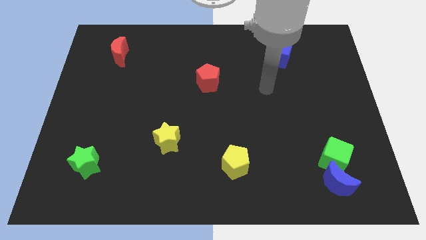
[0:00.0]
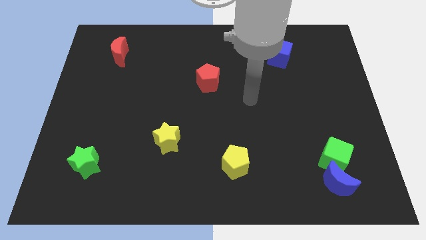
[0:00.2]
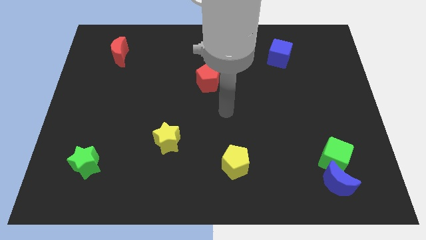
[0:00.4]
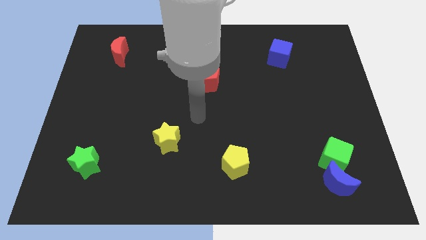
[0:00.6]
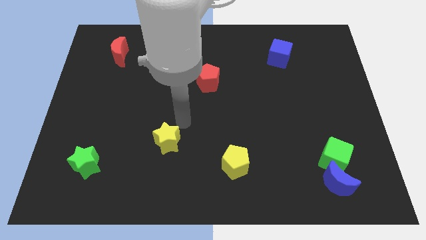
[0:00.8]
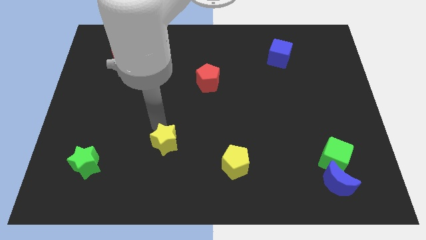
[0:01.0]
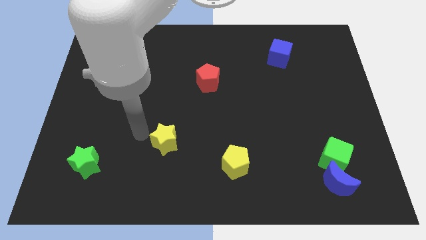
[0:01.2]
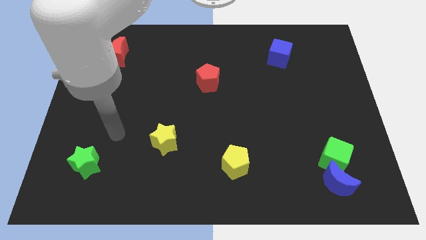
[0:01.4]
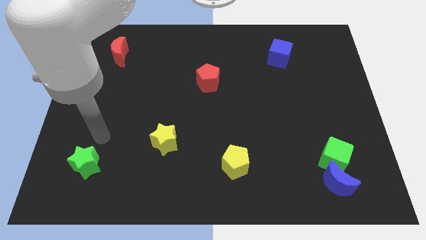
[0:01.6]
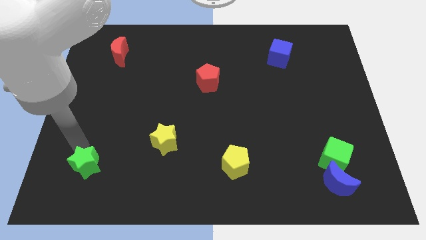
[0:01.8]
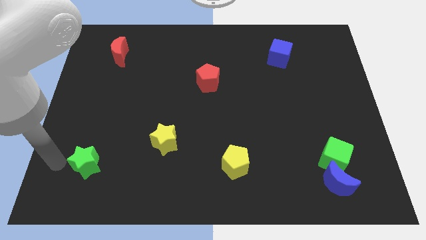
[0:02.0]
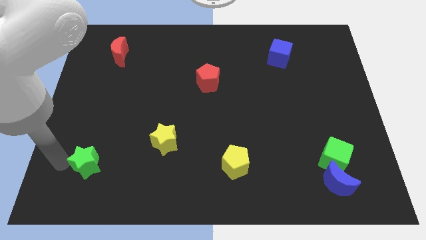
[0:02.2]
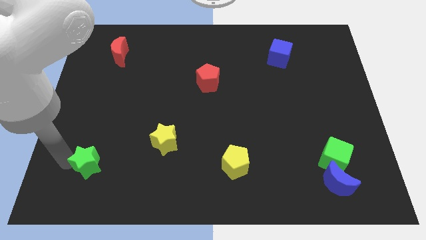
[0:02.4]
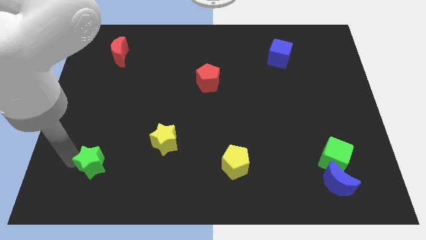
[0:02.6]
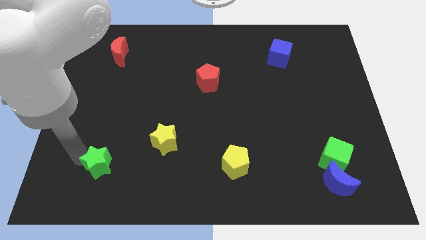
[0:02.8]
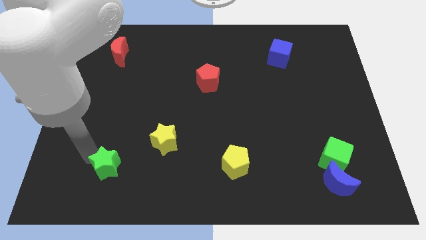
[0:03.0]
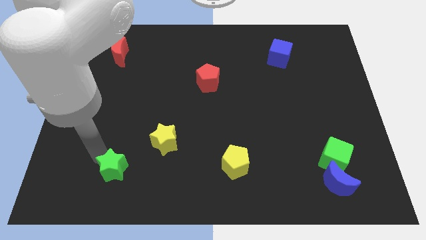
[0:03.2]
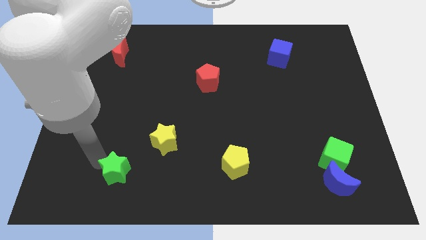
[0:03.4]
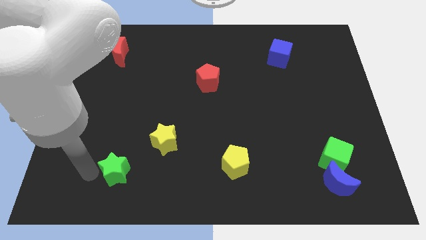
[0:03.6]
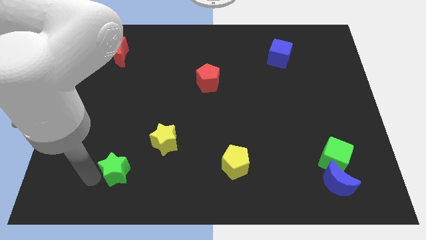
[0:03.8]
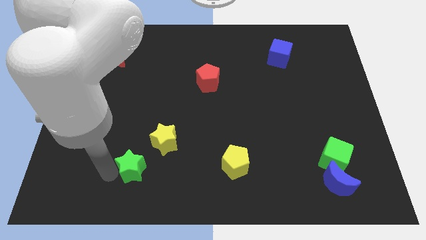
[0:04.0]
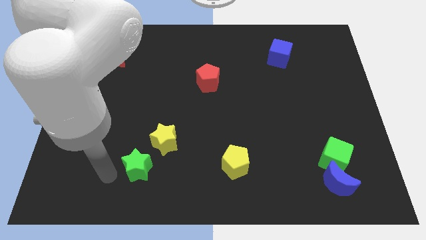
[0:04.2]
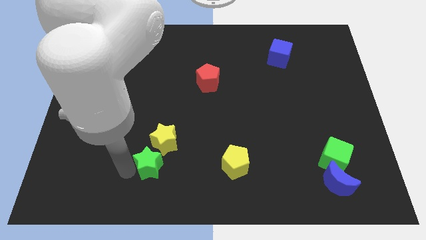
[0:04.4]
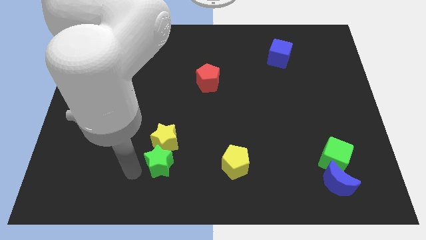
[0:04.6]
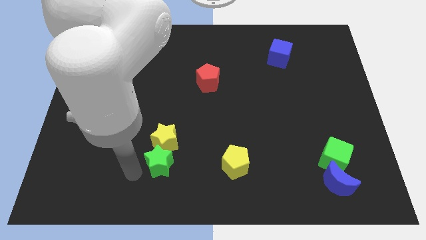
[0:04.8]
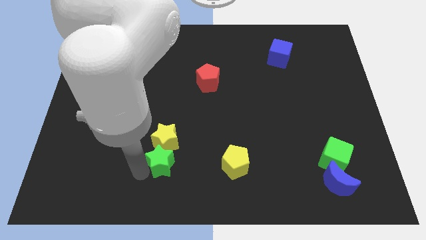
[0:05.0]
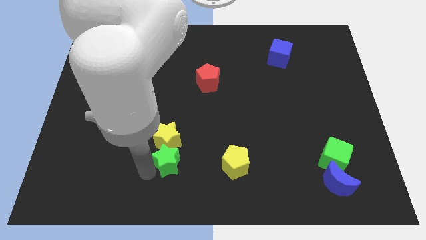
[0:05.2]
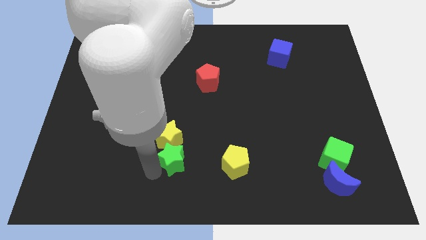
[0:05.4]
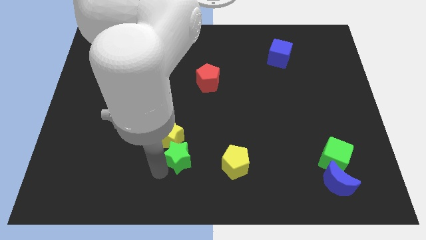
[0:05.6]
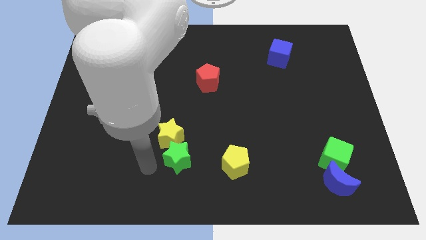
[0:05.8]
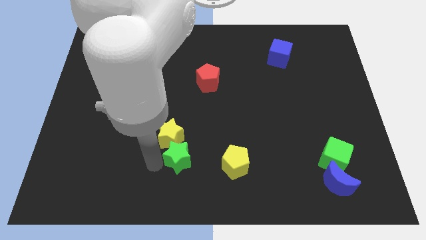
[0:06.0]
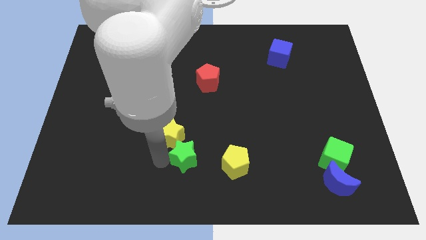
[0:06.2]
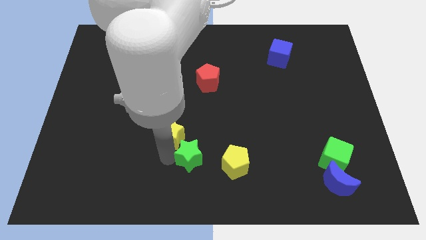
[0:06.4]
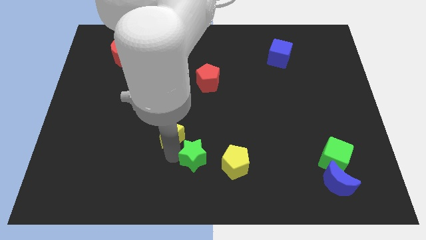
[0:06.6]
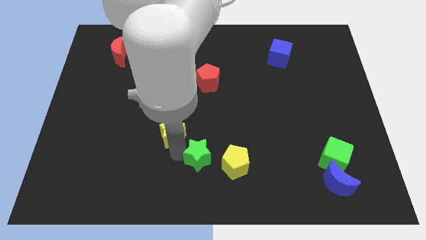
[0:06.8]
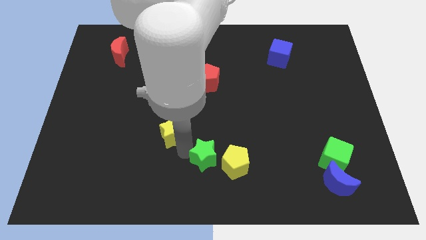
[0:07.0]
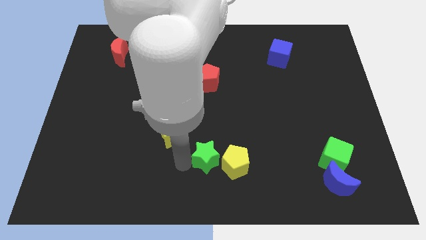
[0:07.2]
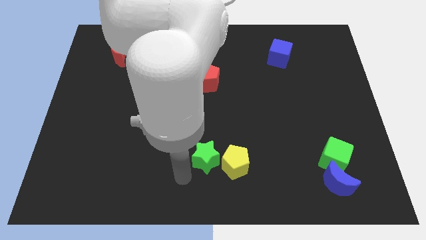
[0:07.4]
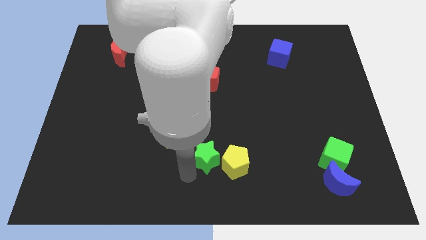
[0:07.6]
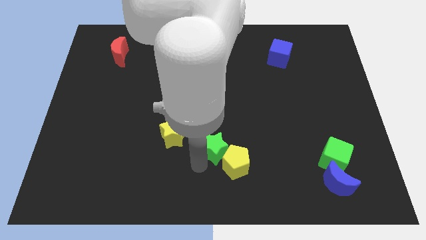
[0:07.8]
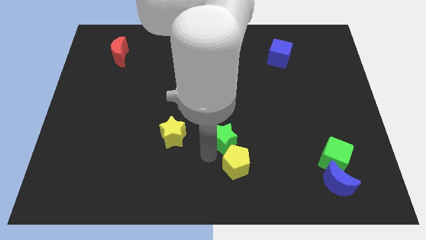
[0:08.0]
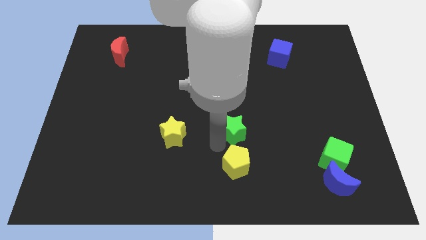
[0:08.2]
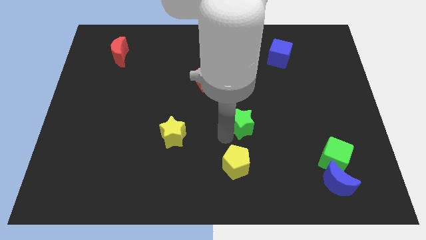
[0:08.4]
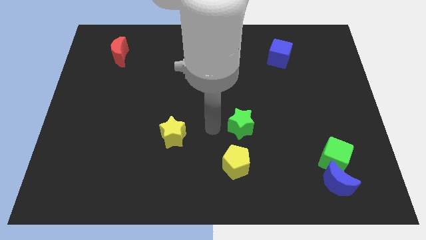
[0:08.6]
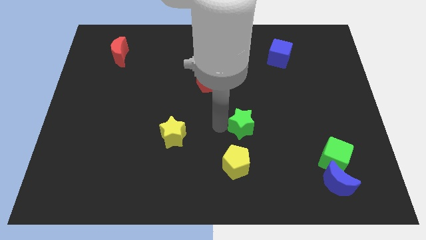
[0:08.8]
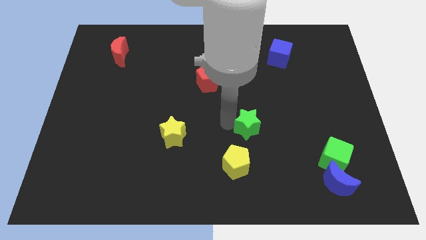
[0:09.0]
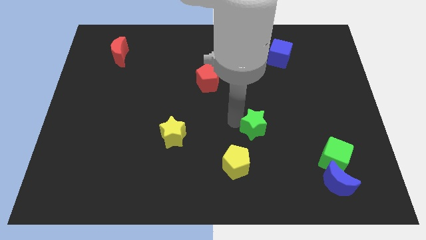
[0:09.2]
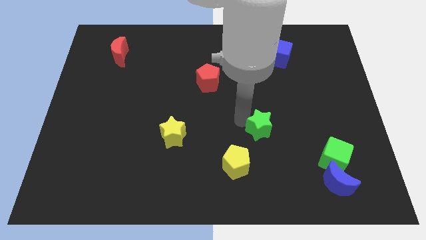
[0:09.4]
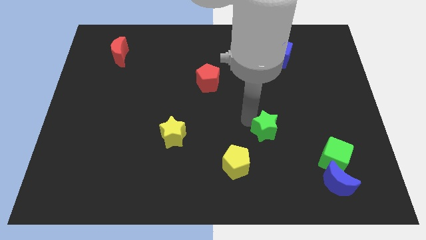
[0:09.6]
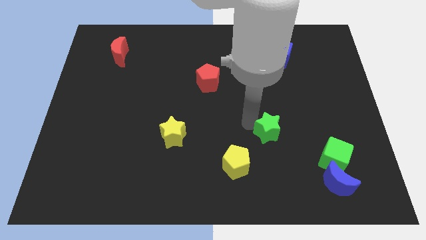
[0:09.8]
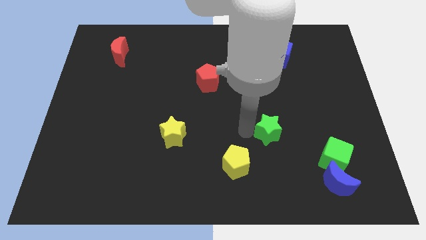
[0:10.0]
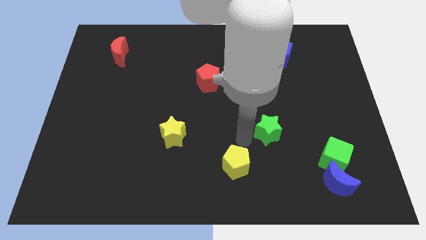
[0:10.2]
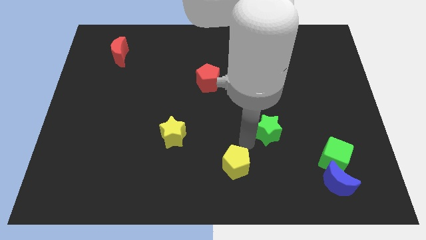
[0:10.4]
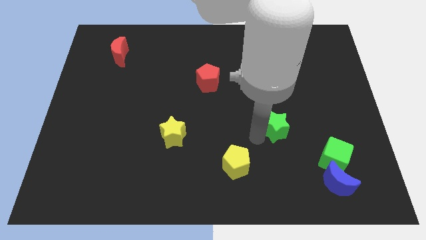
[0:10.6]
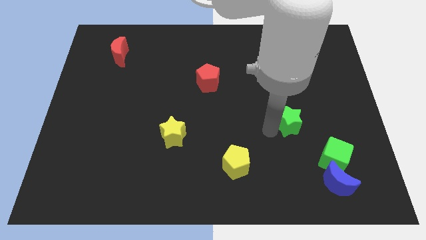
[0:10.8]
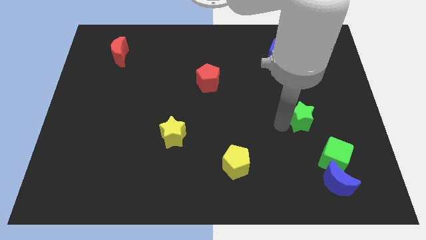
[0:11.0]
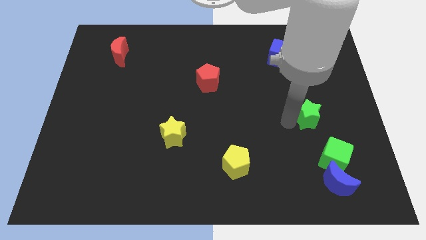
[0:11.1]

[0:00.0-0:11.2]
slide the green star to the top side of the green cube

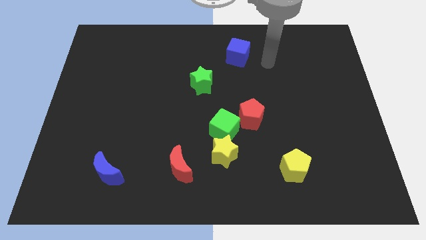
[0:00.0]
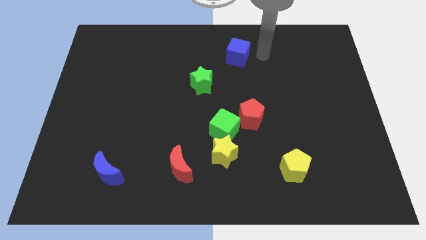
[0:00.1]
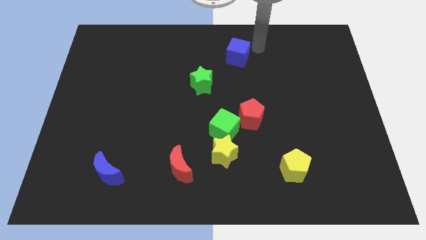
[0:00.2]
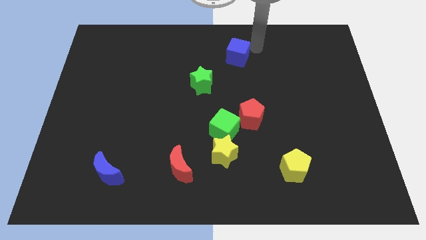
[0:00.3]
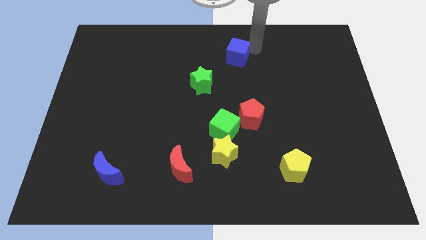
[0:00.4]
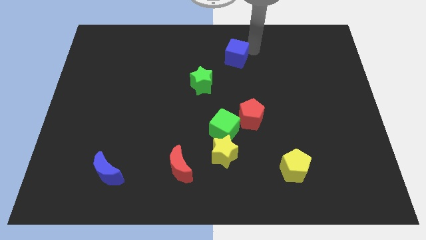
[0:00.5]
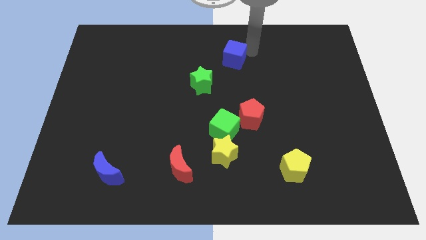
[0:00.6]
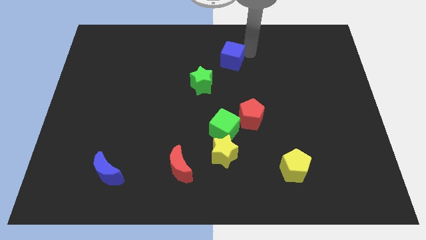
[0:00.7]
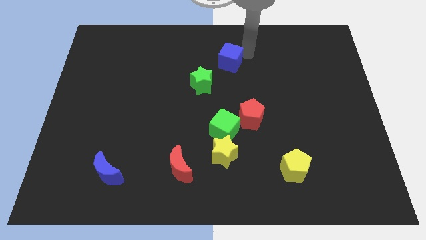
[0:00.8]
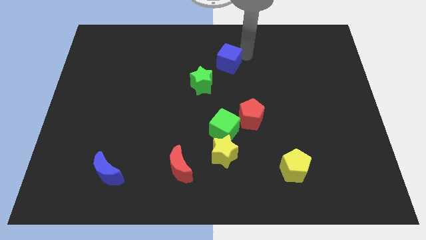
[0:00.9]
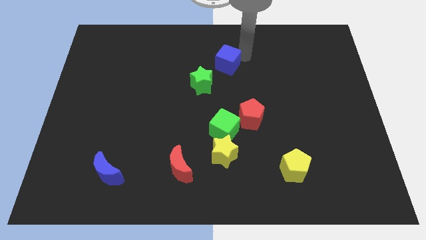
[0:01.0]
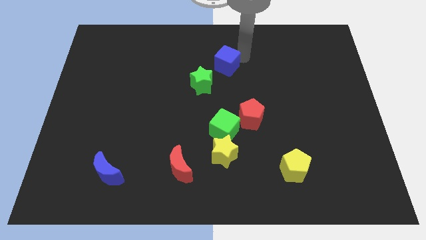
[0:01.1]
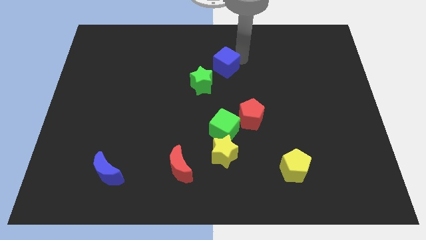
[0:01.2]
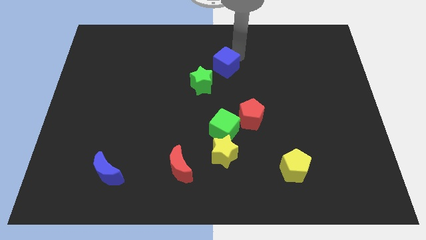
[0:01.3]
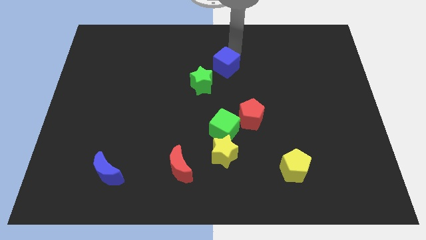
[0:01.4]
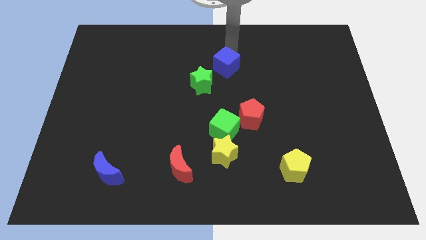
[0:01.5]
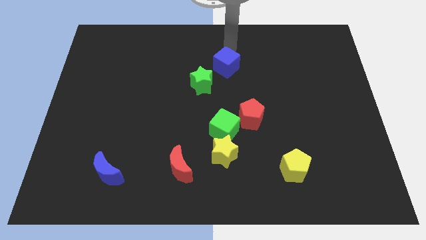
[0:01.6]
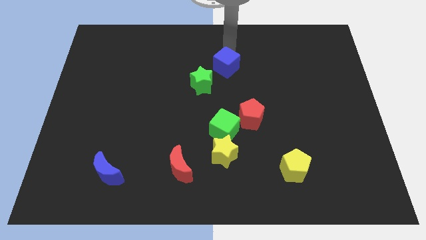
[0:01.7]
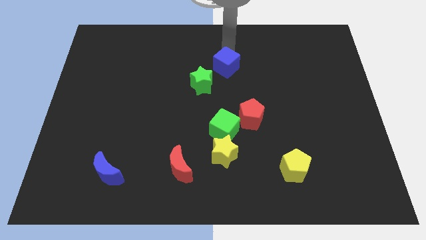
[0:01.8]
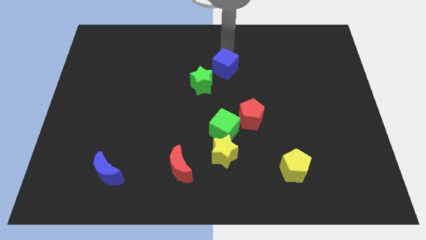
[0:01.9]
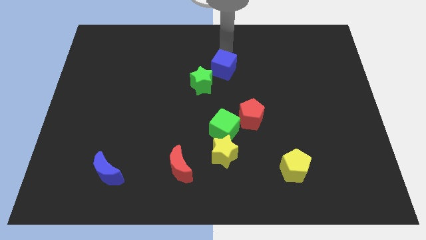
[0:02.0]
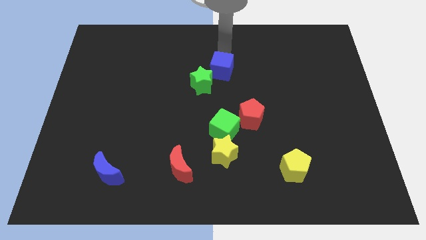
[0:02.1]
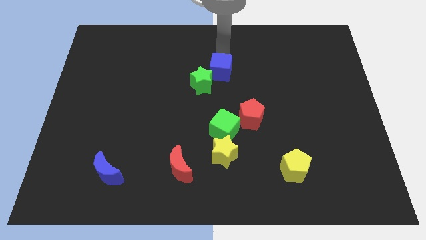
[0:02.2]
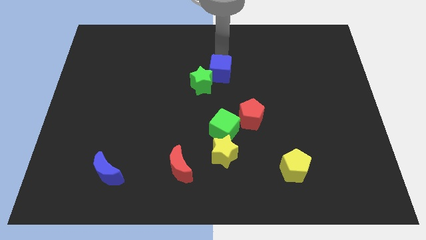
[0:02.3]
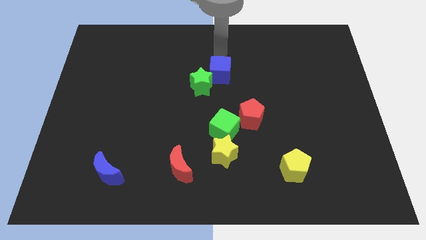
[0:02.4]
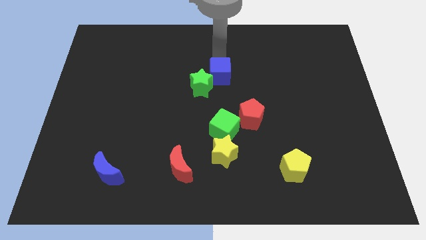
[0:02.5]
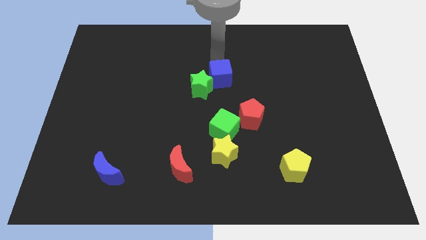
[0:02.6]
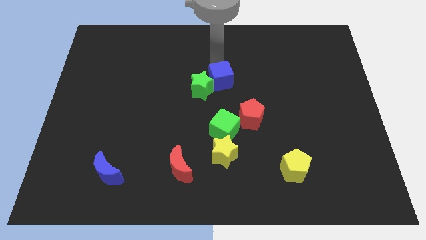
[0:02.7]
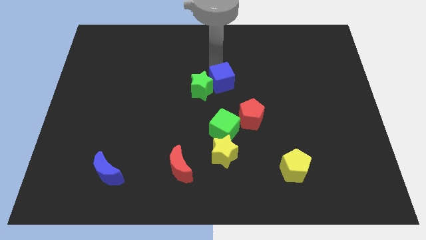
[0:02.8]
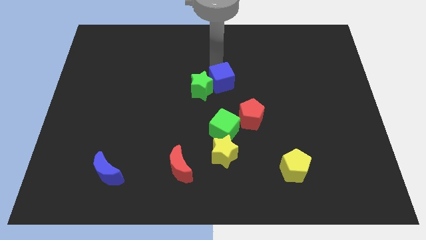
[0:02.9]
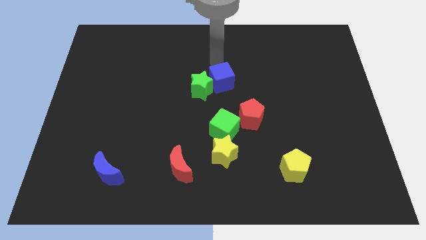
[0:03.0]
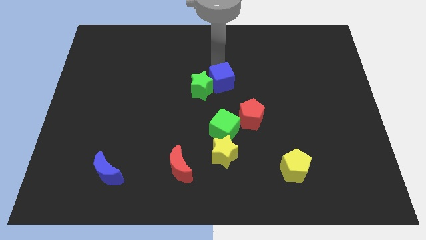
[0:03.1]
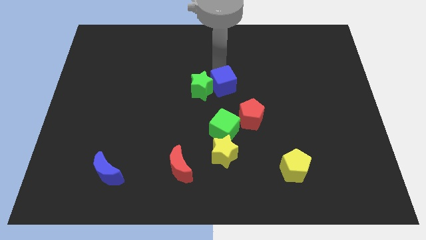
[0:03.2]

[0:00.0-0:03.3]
slide the blue cube to the top left side of the red pentagon
